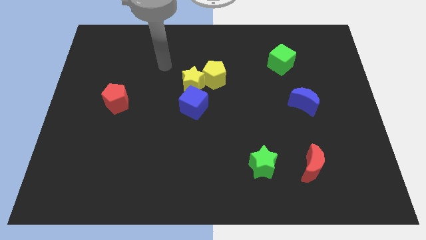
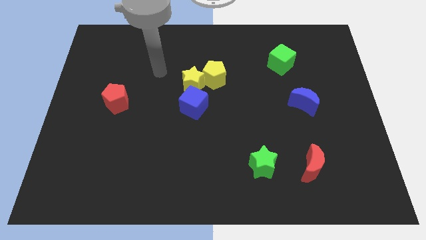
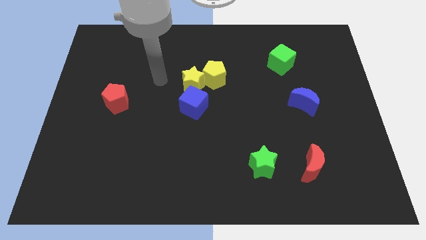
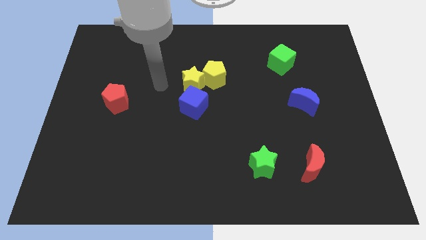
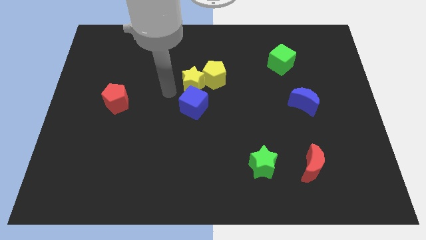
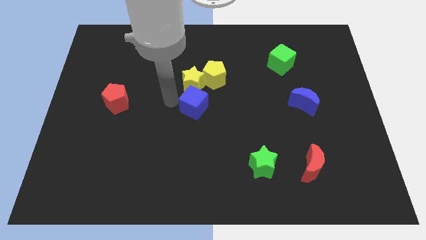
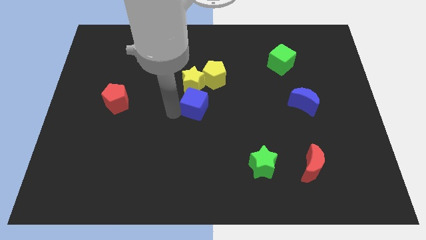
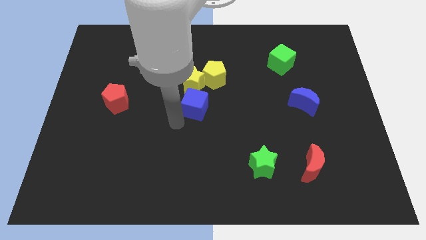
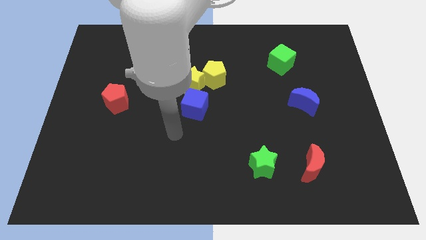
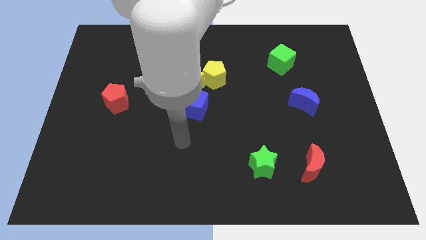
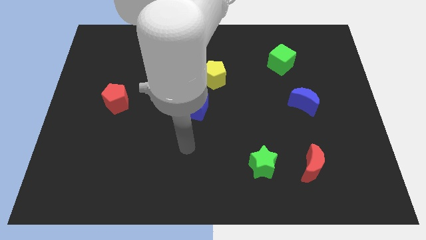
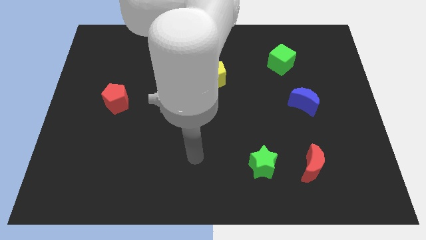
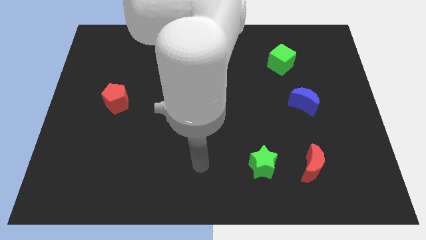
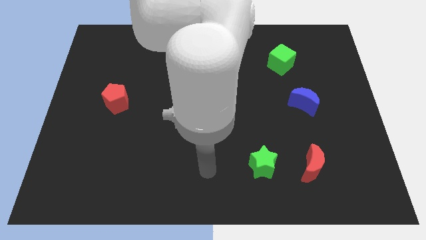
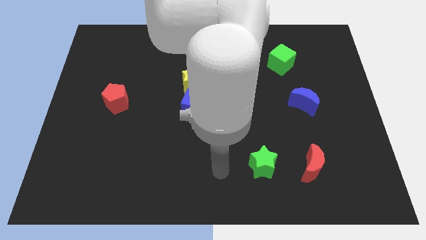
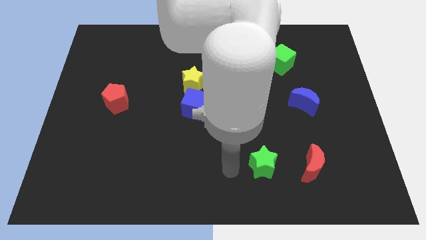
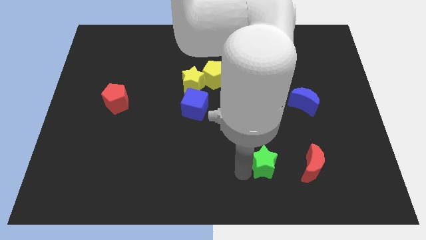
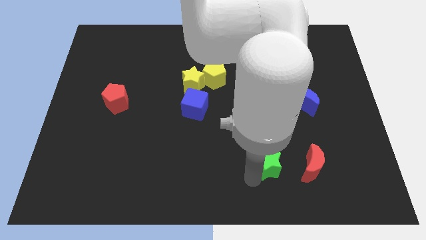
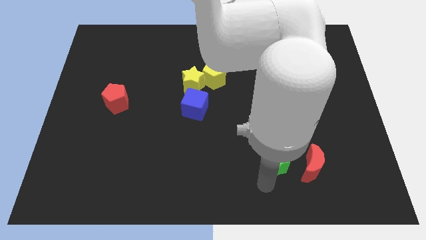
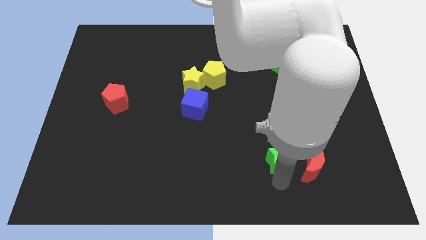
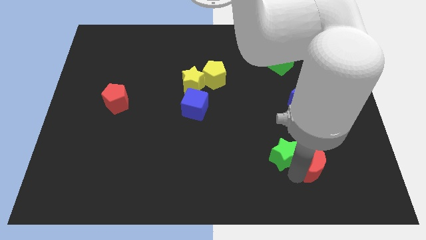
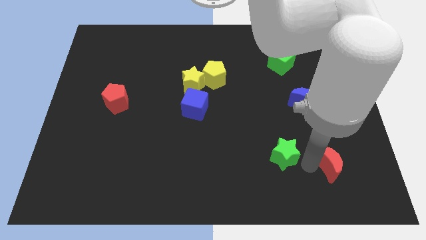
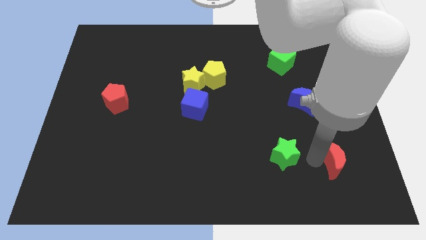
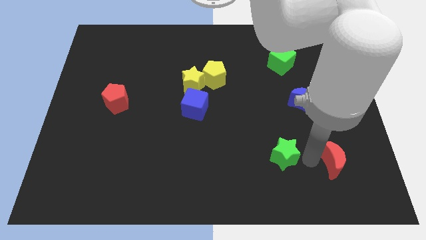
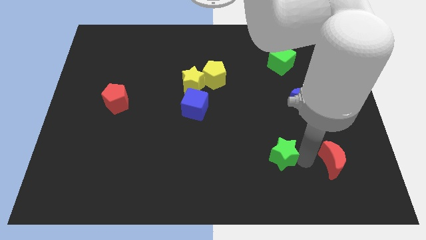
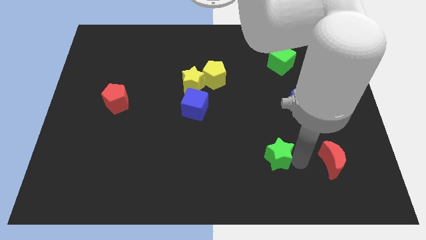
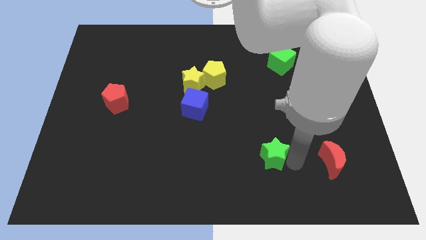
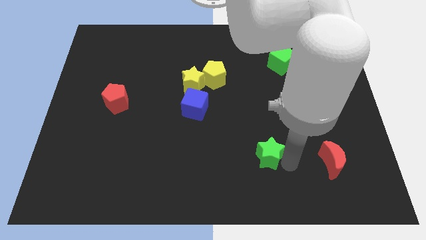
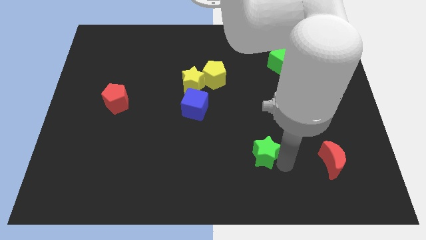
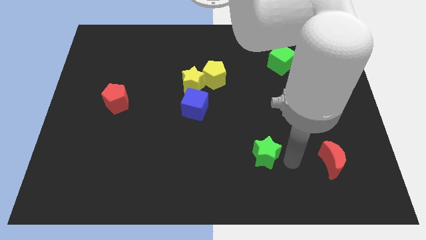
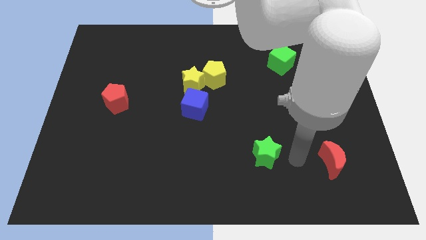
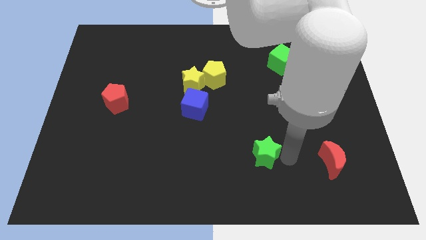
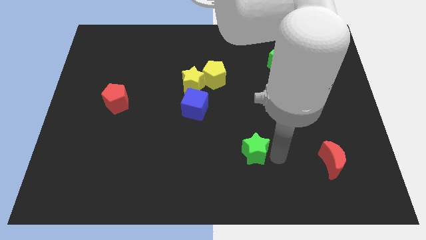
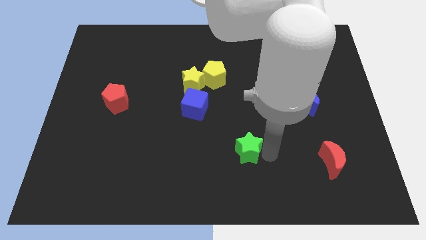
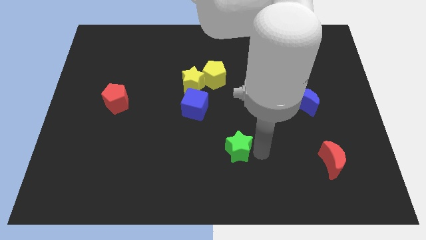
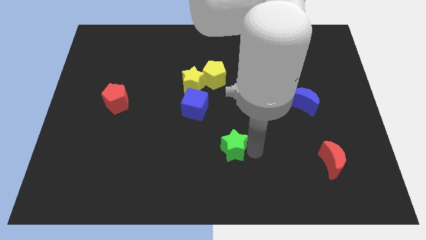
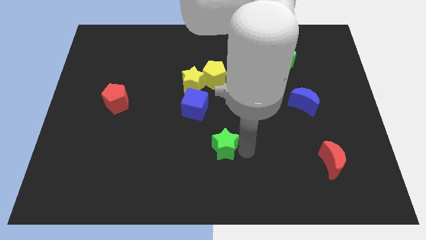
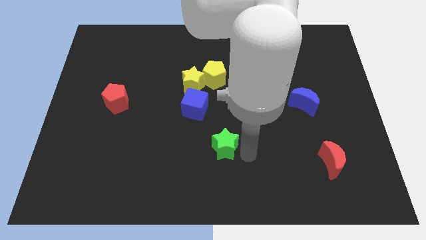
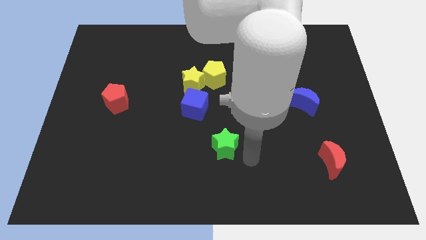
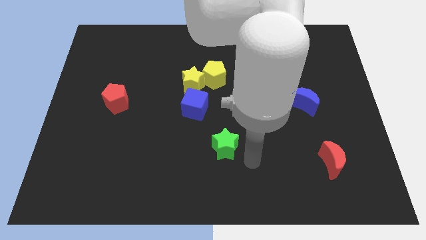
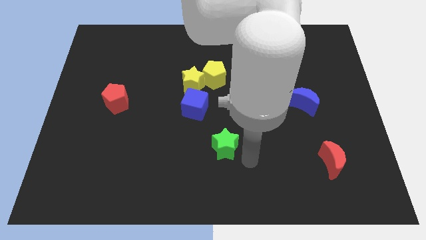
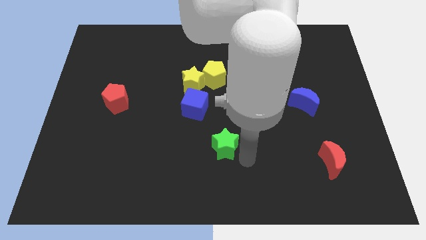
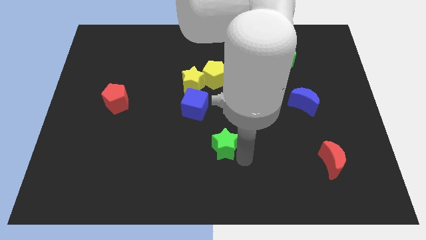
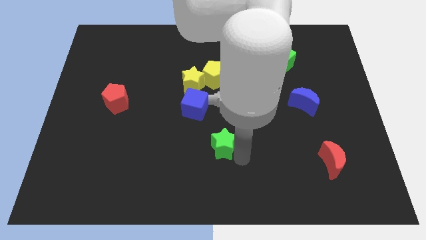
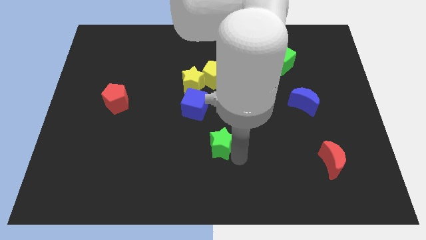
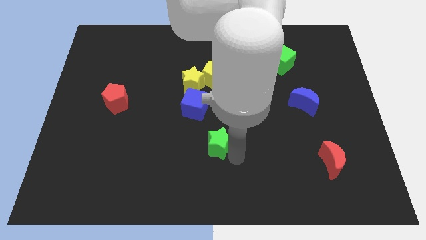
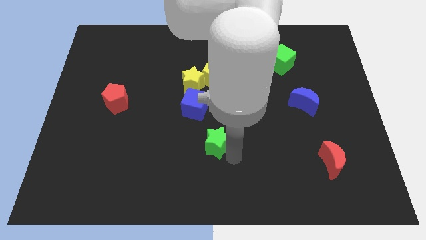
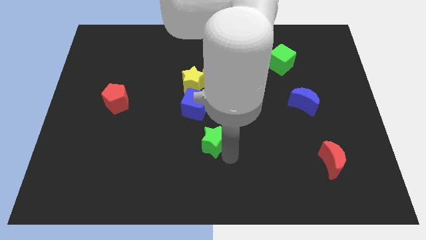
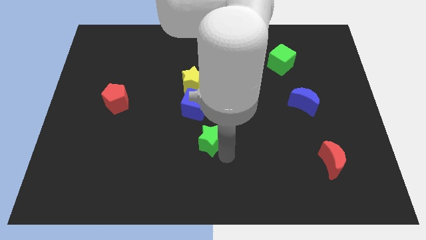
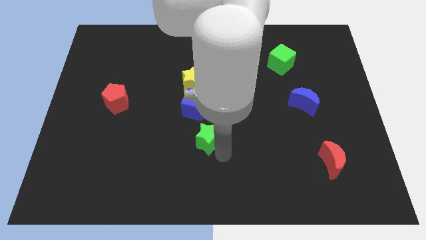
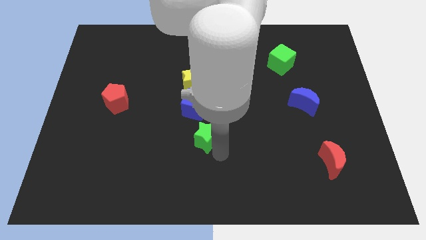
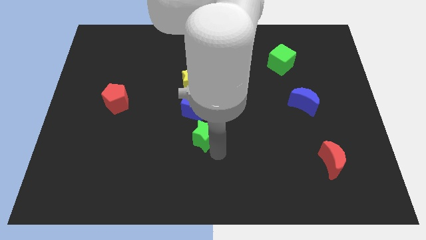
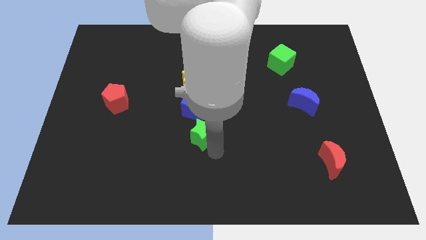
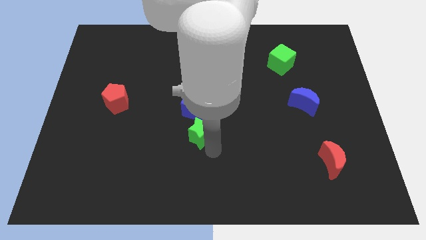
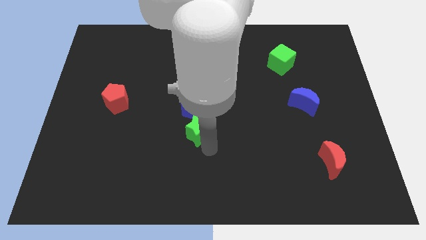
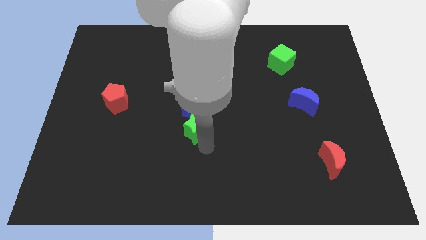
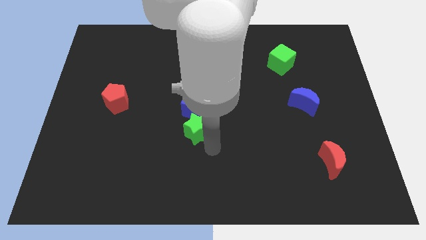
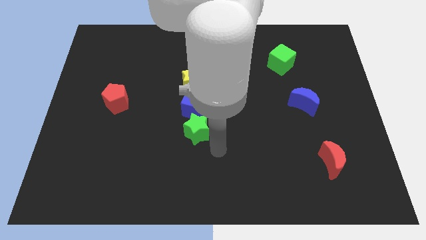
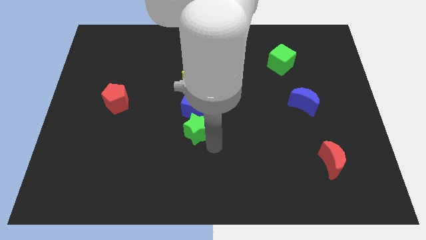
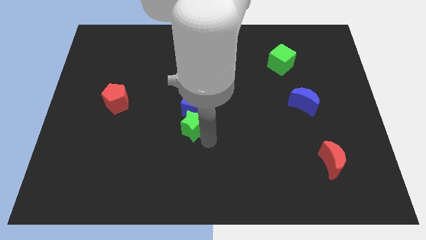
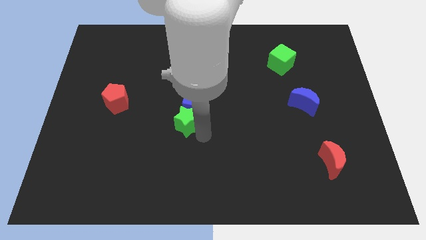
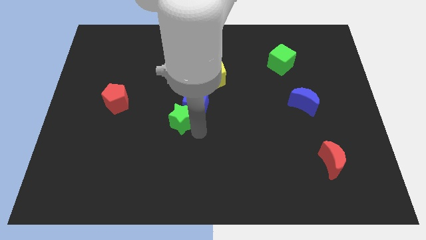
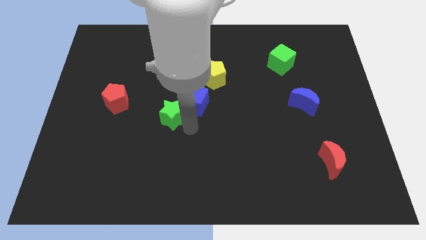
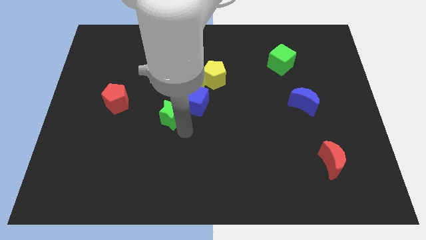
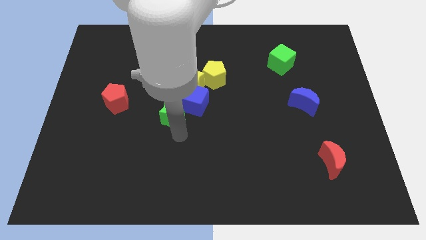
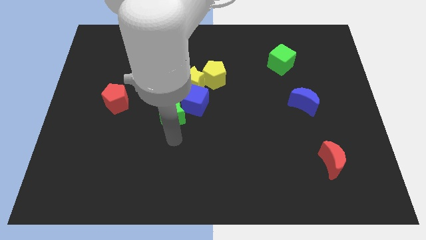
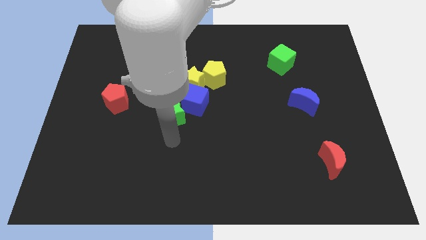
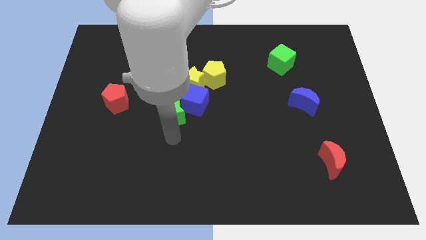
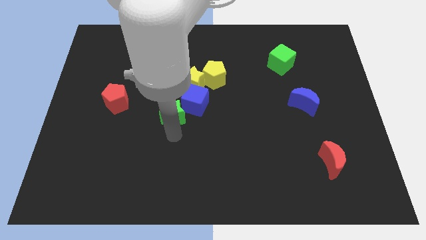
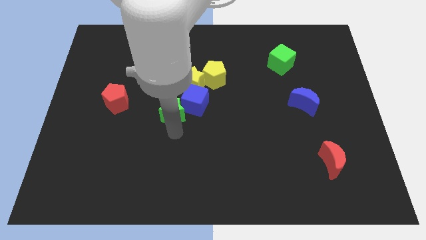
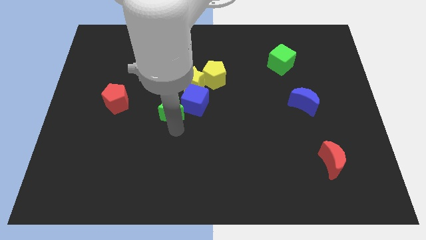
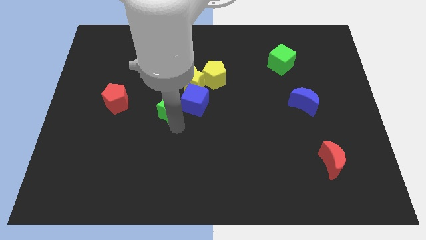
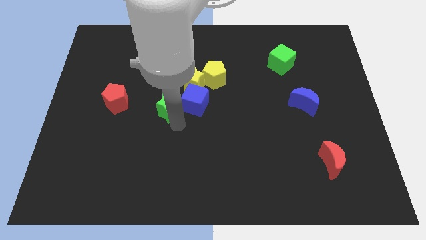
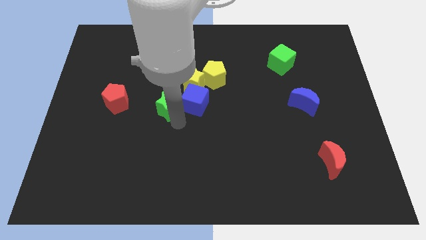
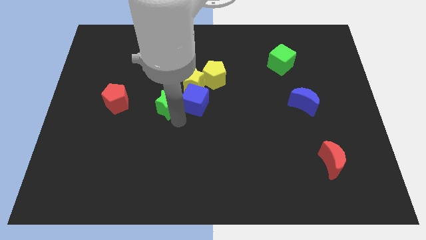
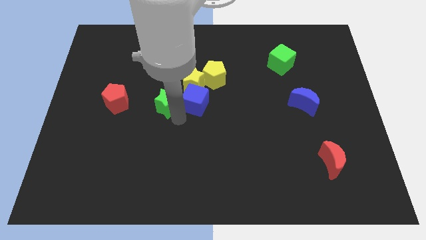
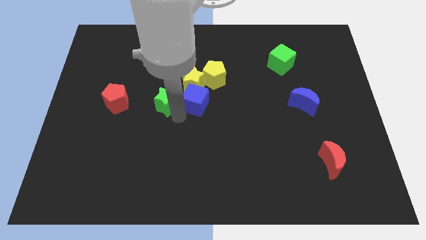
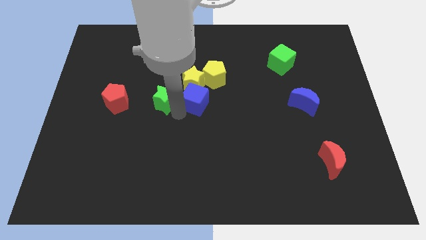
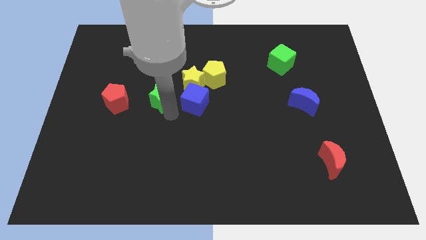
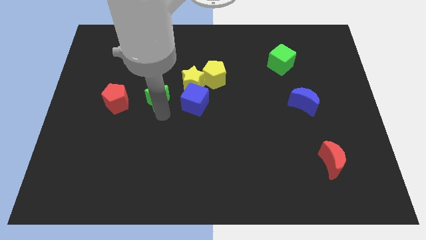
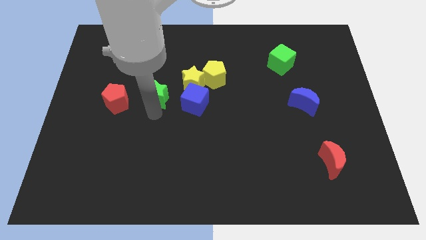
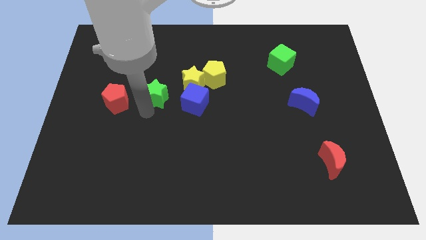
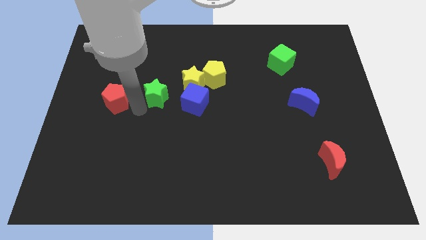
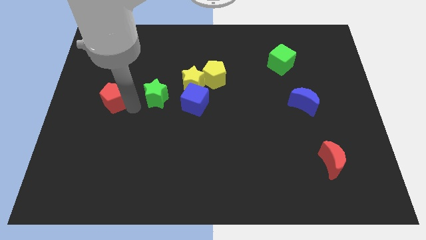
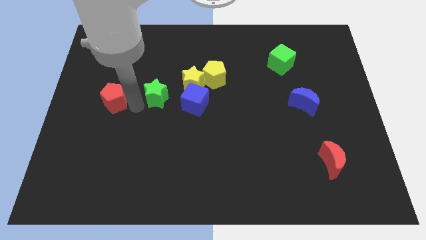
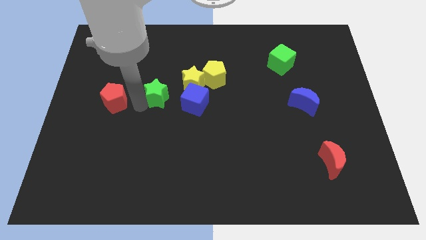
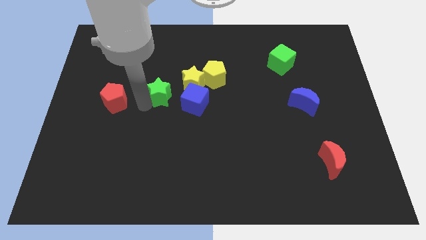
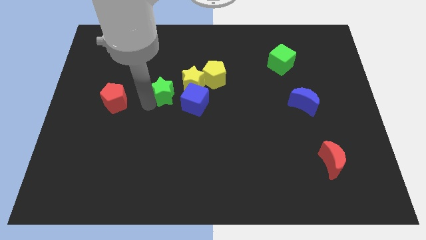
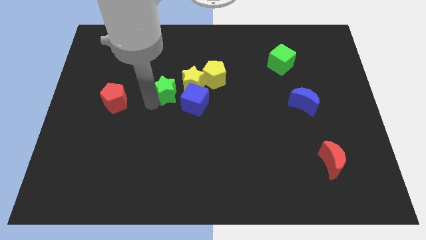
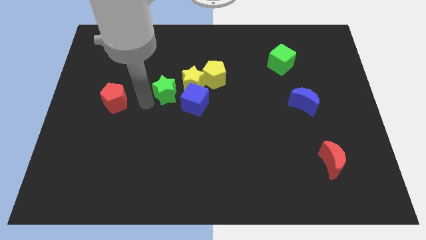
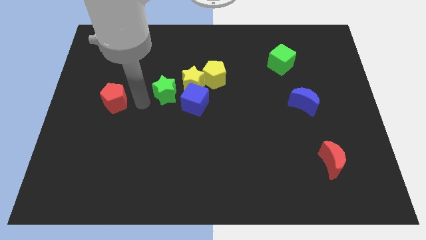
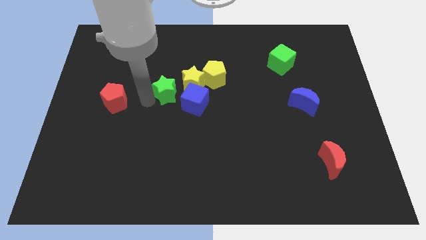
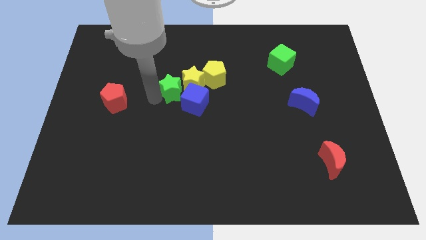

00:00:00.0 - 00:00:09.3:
move the green star close to the yellow star
